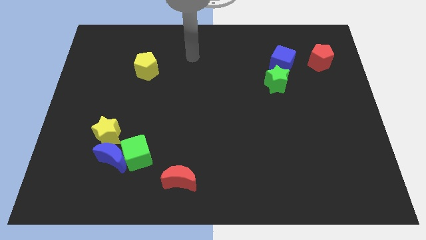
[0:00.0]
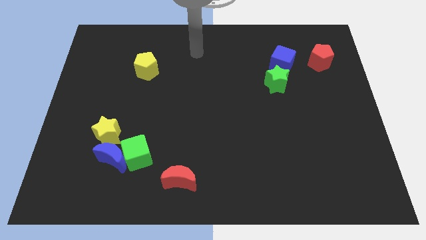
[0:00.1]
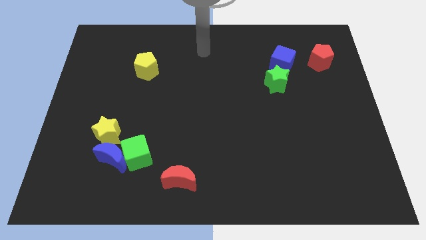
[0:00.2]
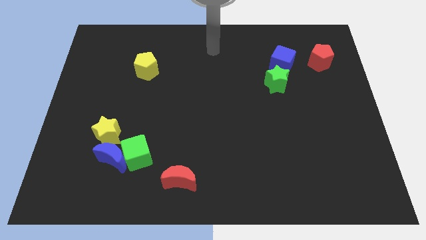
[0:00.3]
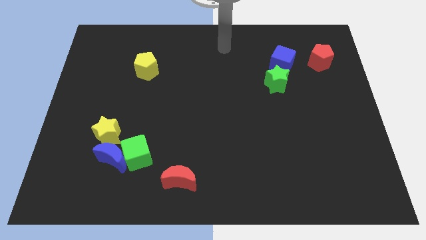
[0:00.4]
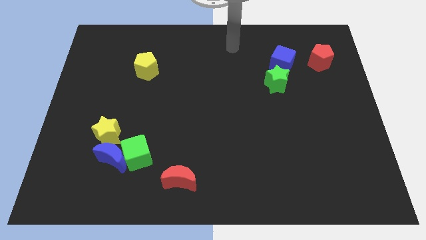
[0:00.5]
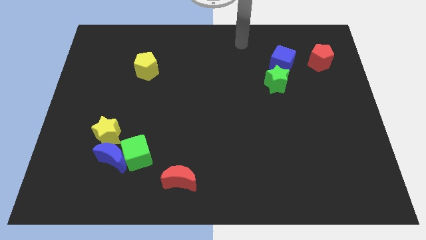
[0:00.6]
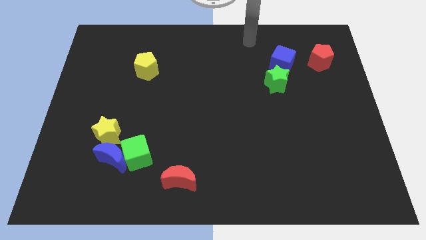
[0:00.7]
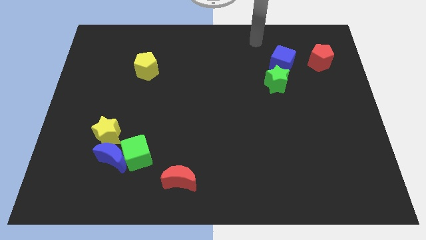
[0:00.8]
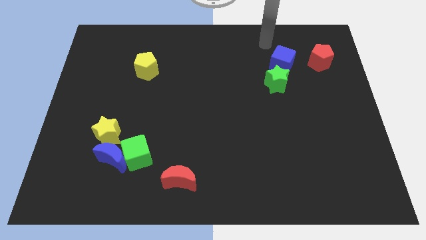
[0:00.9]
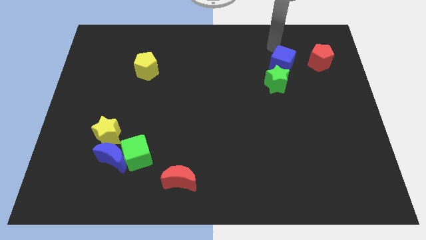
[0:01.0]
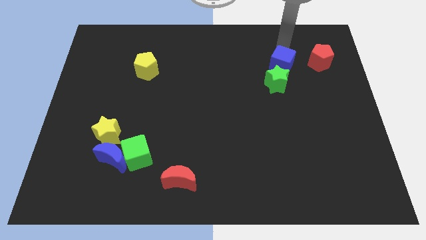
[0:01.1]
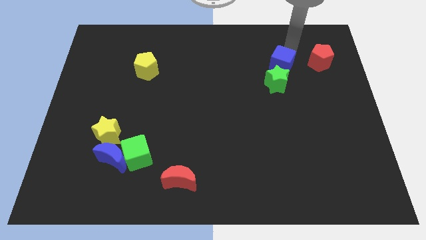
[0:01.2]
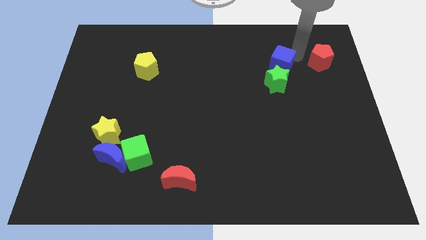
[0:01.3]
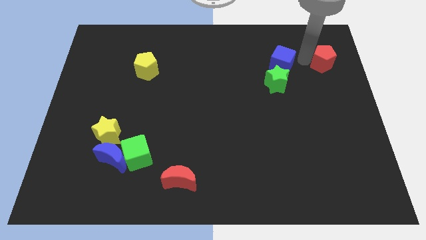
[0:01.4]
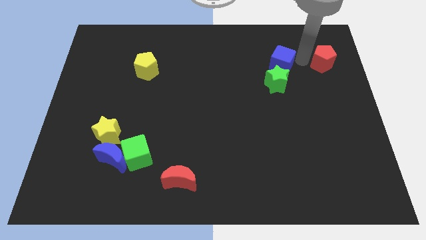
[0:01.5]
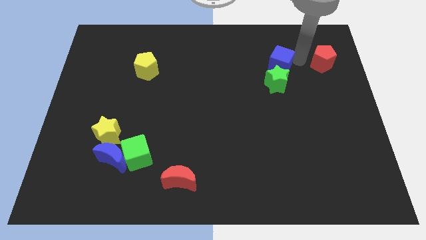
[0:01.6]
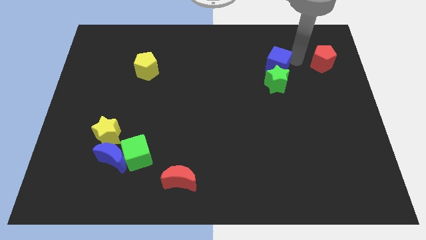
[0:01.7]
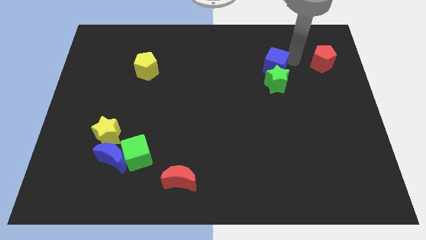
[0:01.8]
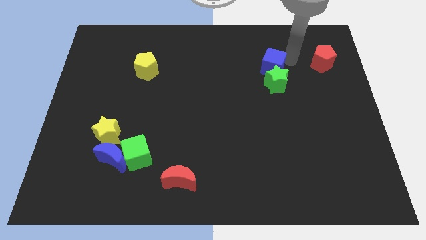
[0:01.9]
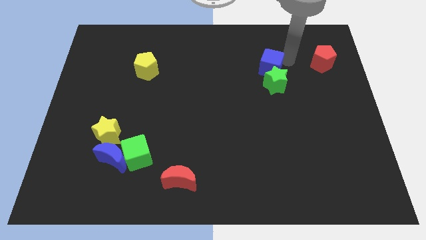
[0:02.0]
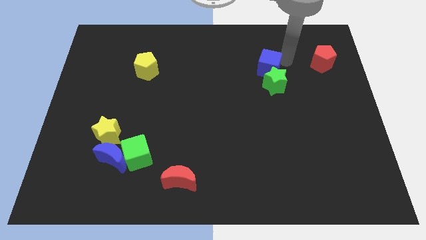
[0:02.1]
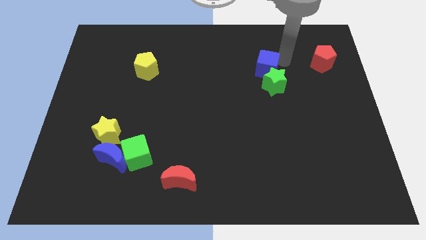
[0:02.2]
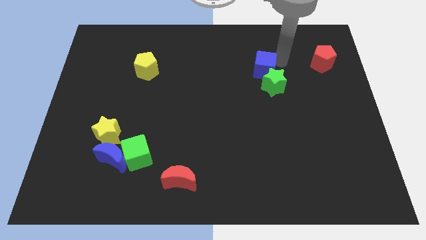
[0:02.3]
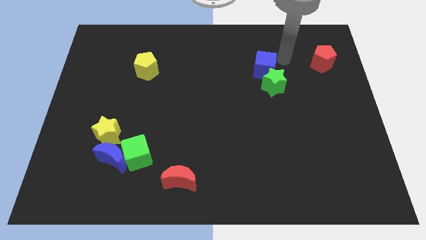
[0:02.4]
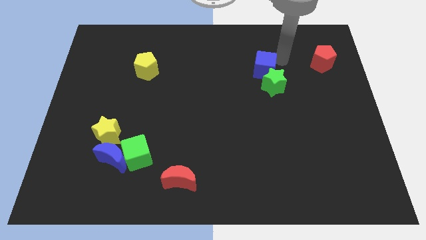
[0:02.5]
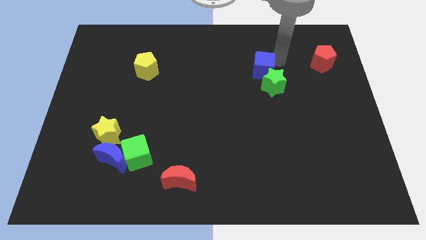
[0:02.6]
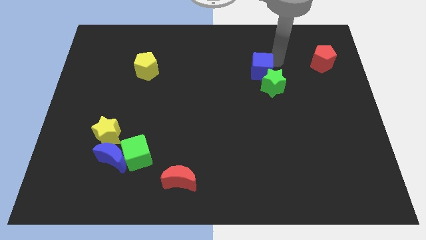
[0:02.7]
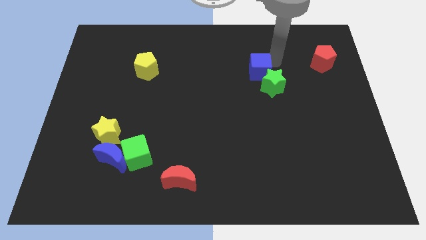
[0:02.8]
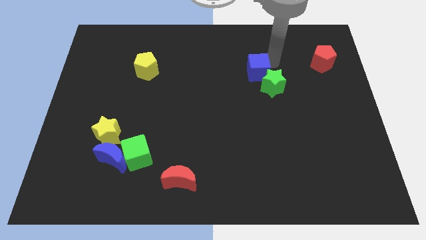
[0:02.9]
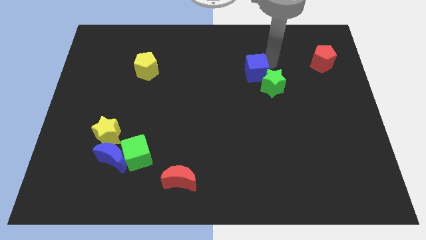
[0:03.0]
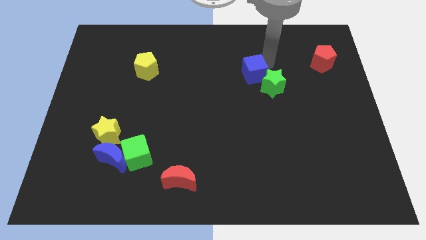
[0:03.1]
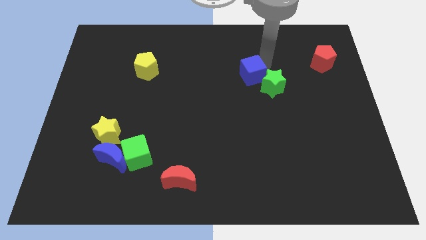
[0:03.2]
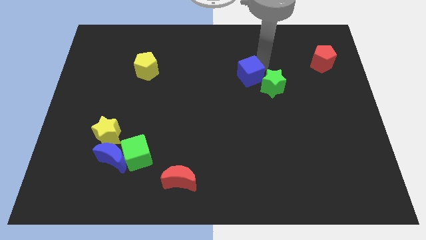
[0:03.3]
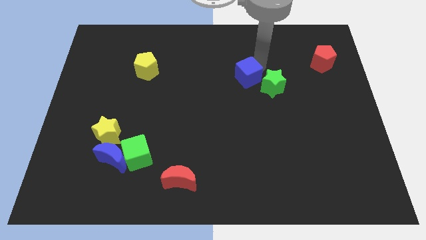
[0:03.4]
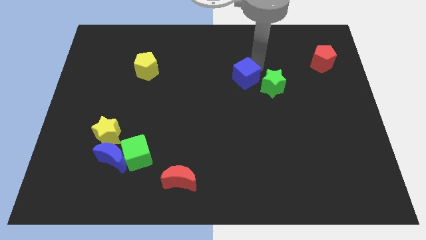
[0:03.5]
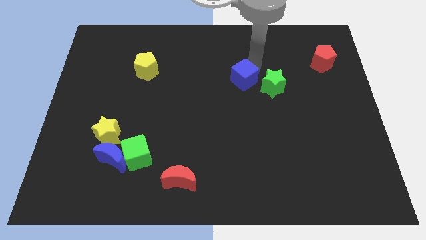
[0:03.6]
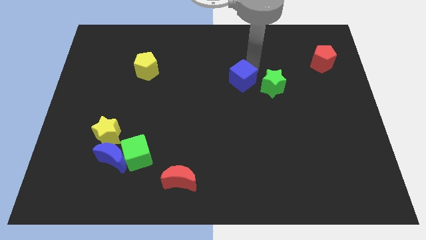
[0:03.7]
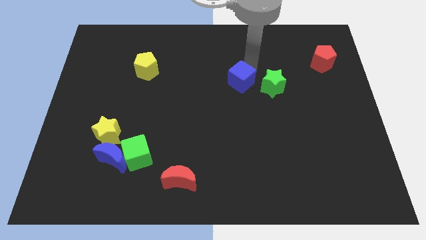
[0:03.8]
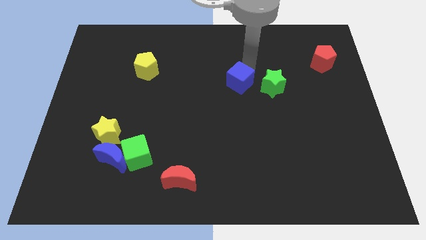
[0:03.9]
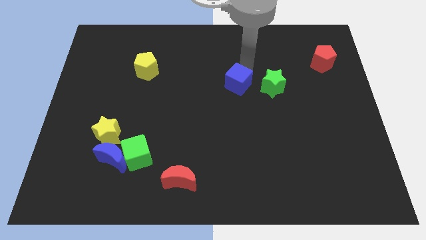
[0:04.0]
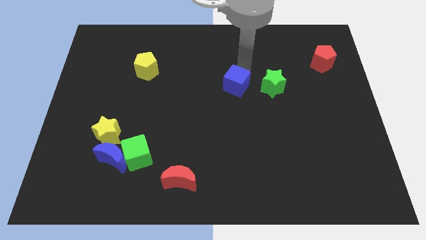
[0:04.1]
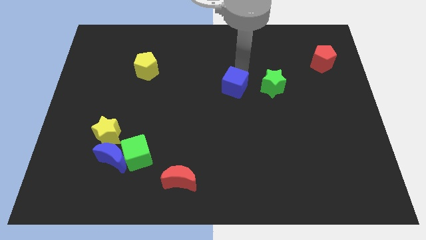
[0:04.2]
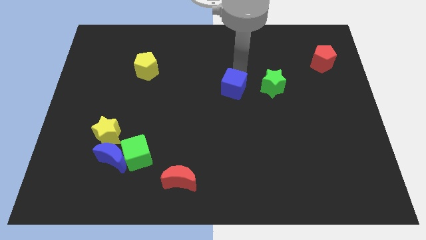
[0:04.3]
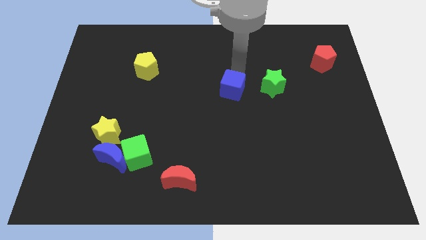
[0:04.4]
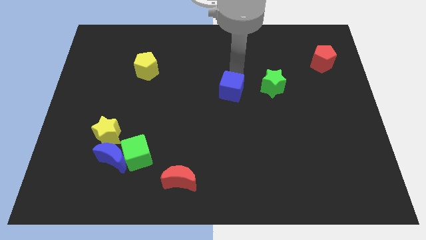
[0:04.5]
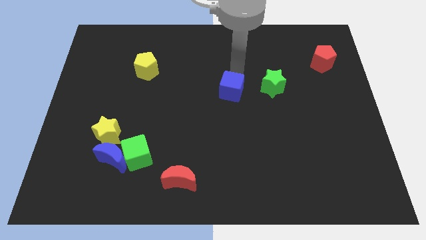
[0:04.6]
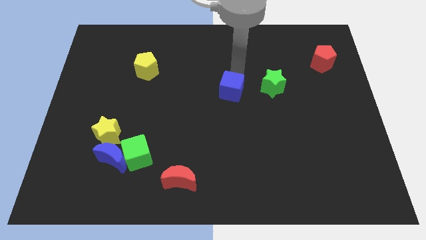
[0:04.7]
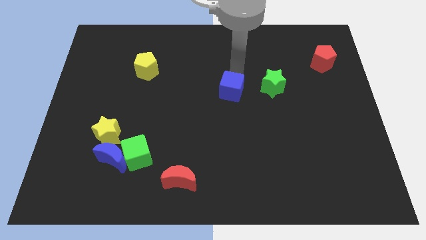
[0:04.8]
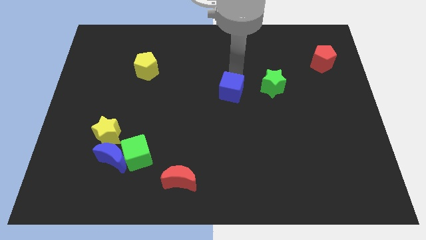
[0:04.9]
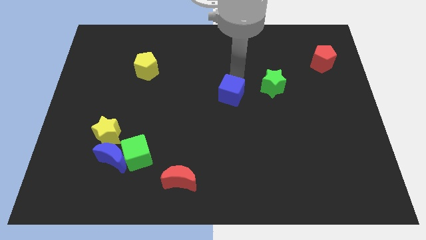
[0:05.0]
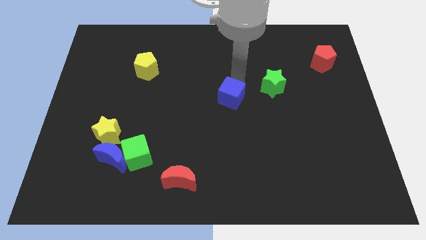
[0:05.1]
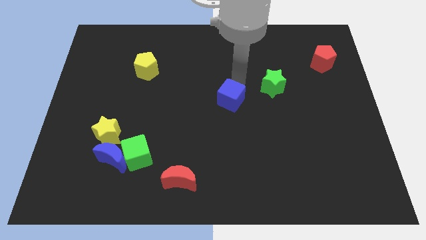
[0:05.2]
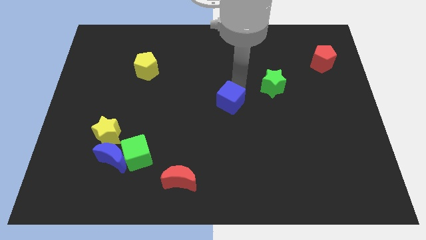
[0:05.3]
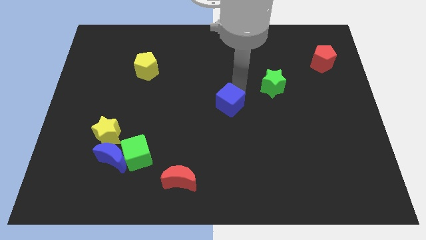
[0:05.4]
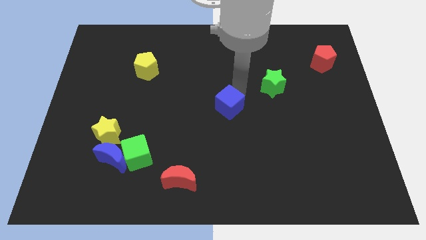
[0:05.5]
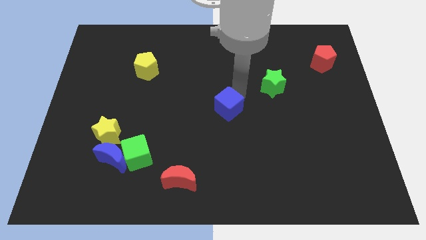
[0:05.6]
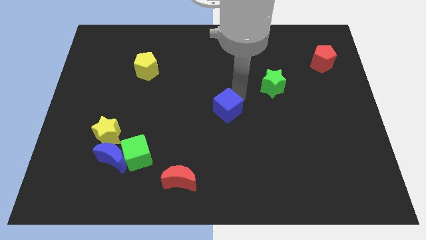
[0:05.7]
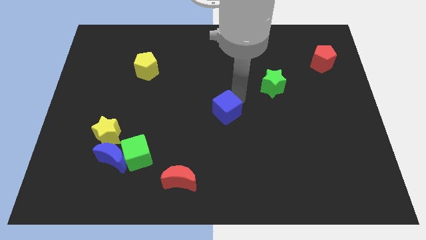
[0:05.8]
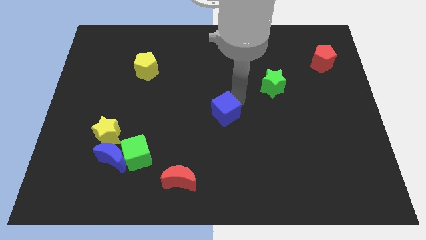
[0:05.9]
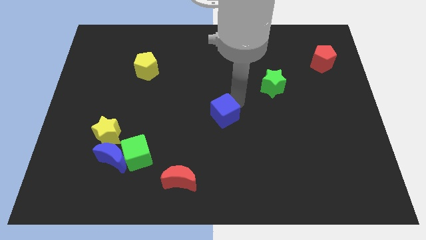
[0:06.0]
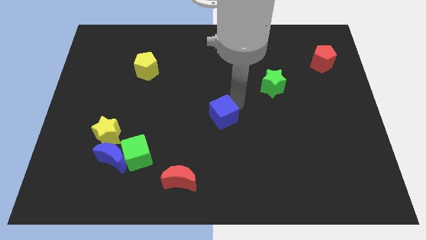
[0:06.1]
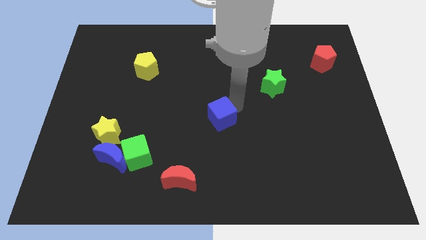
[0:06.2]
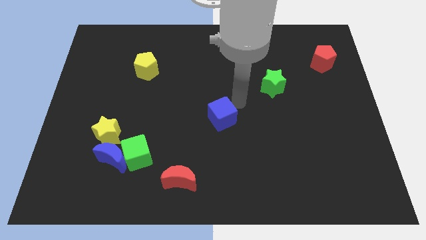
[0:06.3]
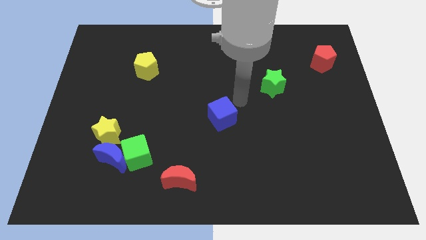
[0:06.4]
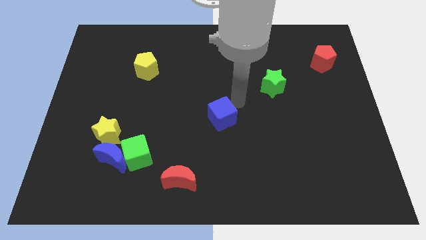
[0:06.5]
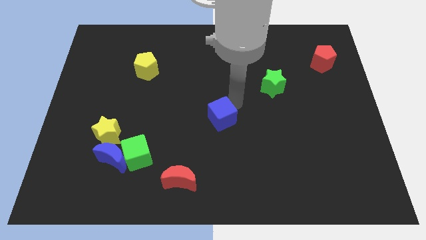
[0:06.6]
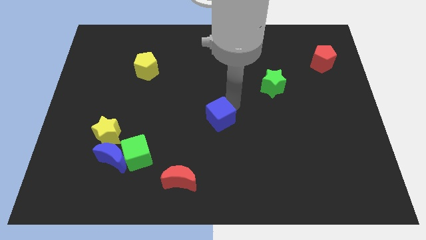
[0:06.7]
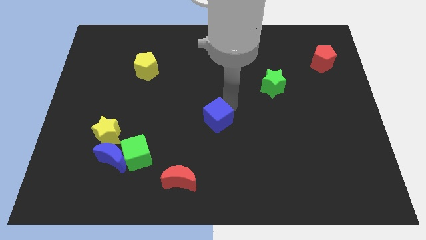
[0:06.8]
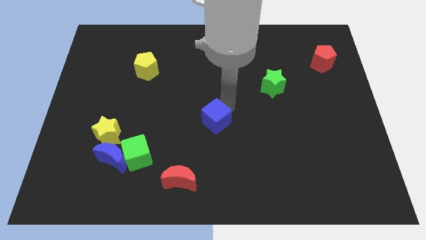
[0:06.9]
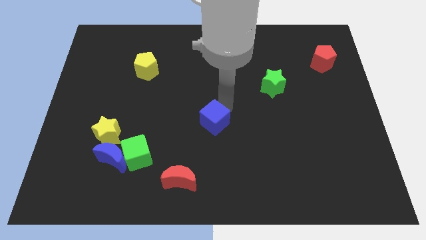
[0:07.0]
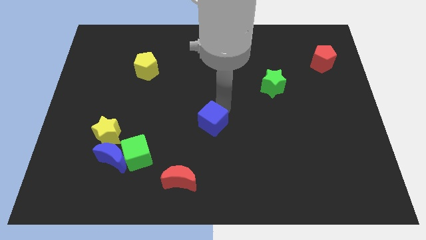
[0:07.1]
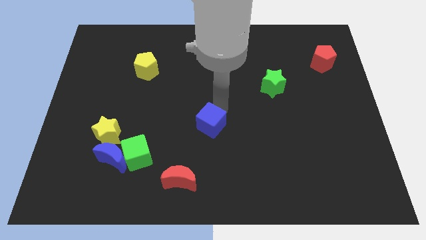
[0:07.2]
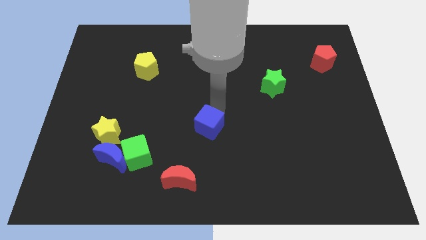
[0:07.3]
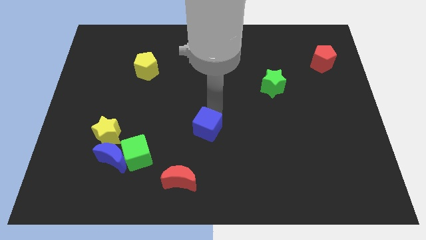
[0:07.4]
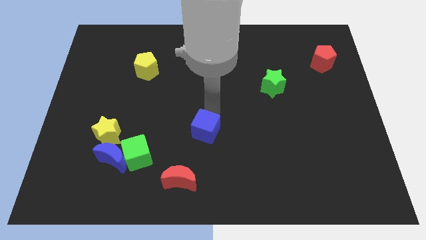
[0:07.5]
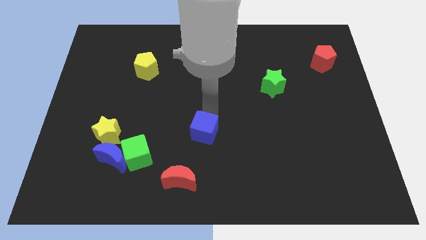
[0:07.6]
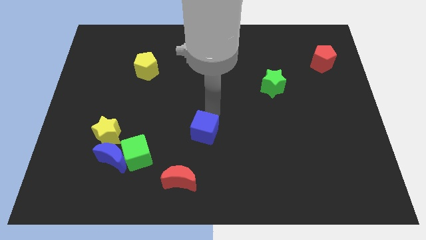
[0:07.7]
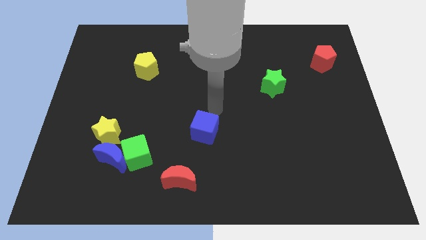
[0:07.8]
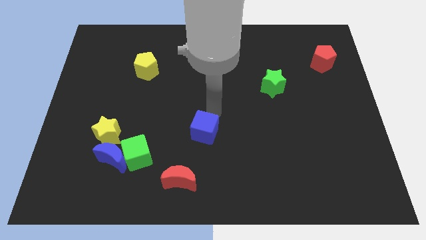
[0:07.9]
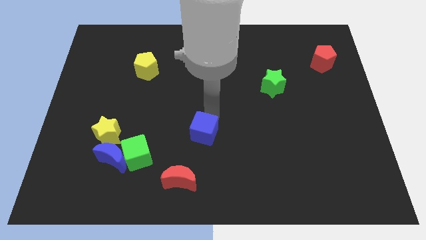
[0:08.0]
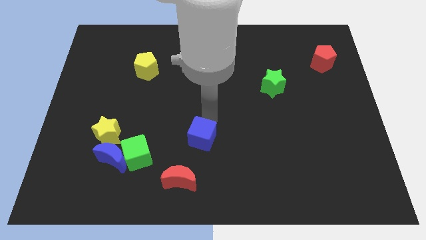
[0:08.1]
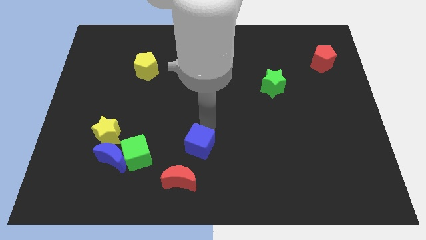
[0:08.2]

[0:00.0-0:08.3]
push the blue cube to the right side of the green cube
